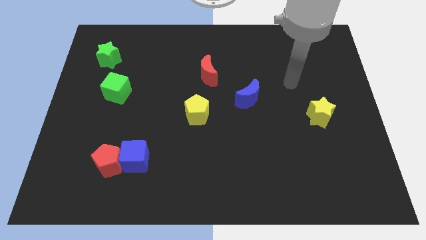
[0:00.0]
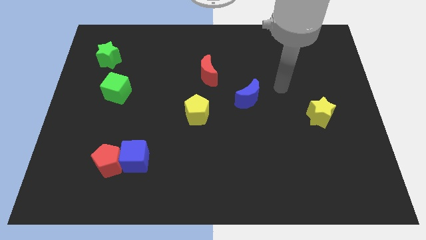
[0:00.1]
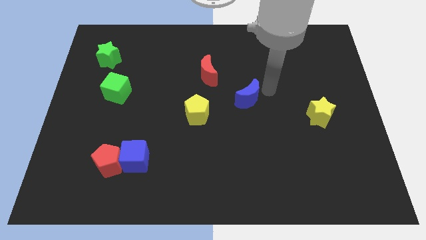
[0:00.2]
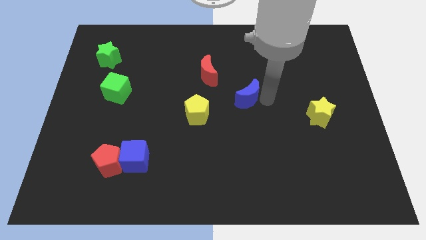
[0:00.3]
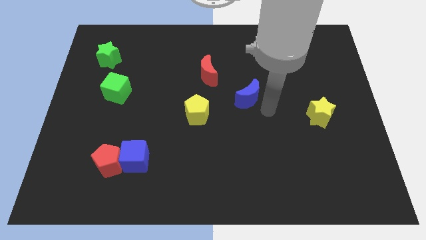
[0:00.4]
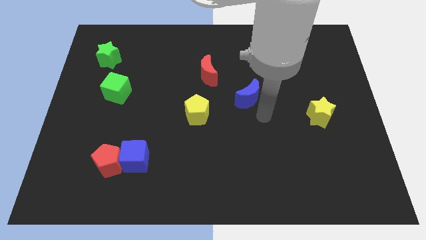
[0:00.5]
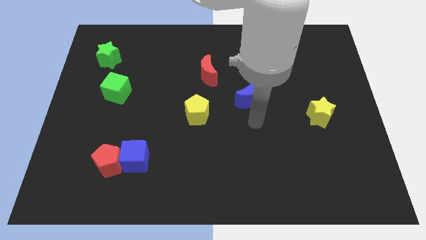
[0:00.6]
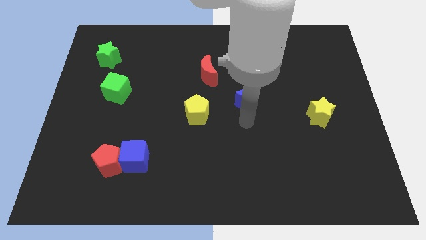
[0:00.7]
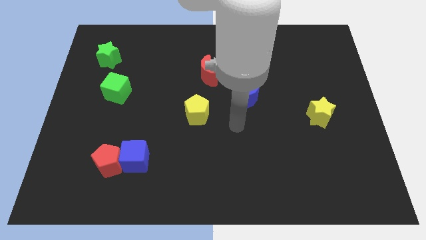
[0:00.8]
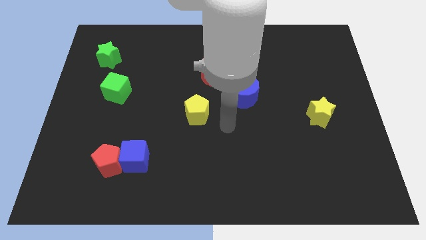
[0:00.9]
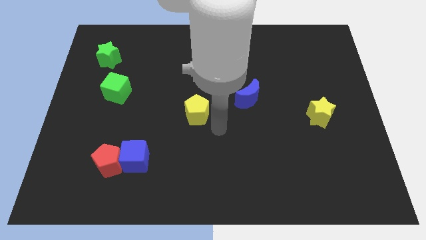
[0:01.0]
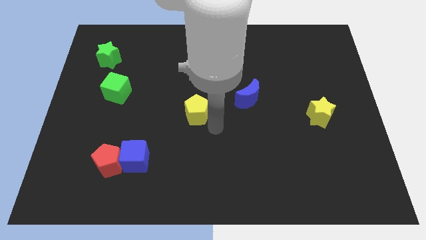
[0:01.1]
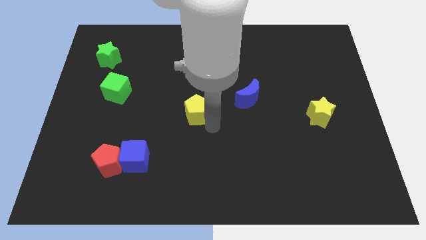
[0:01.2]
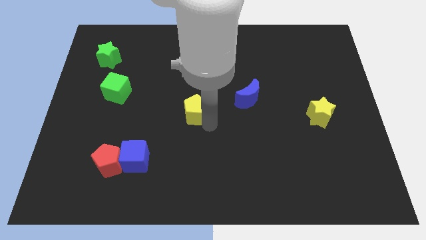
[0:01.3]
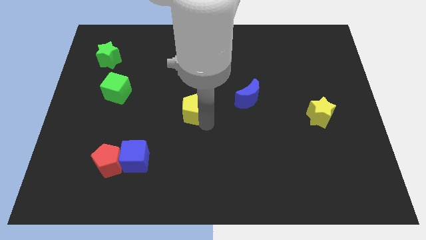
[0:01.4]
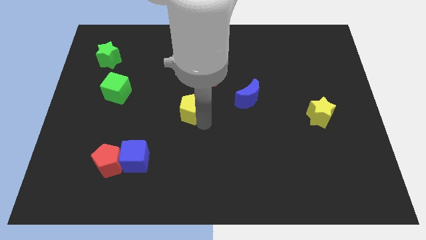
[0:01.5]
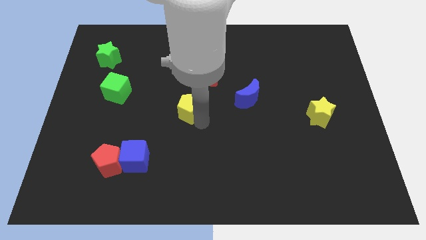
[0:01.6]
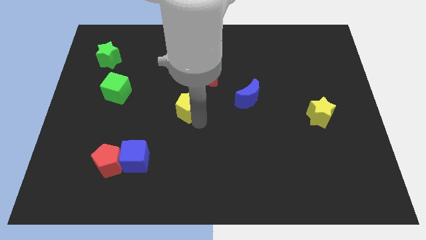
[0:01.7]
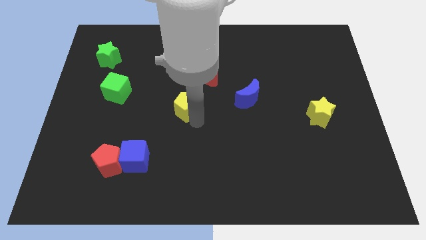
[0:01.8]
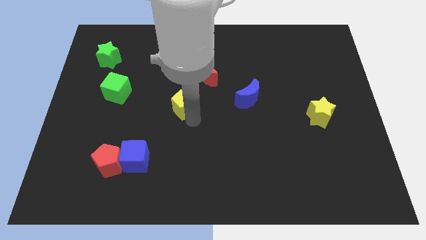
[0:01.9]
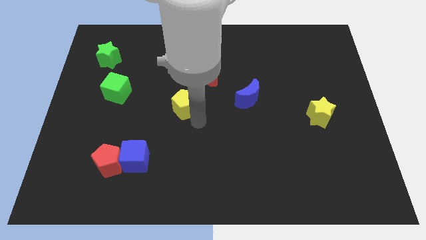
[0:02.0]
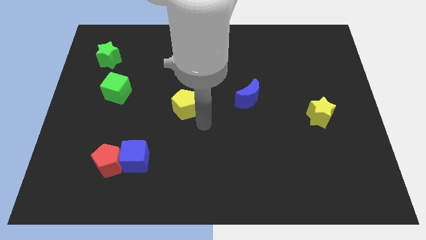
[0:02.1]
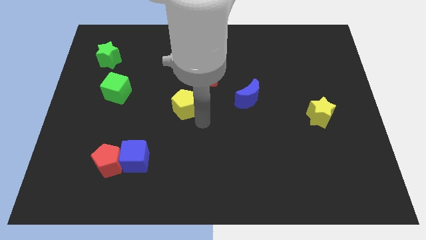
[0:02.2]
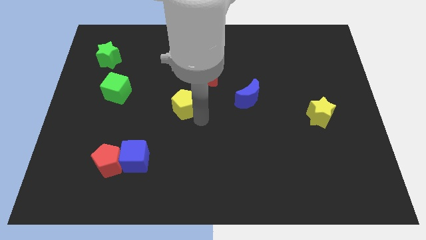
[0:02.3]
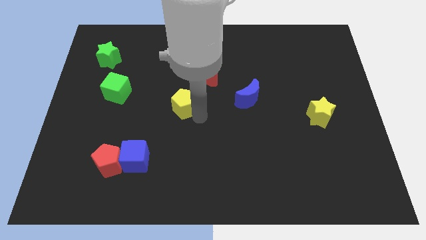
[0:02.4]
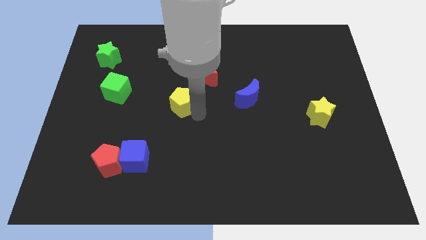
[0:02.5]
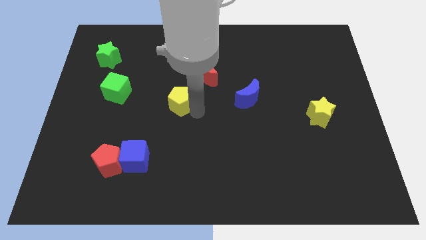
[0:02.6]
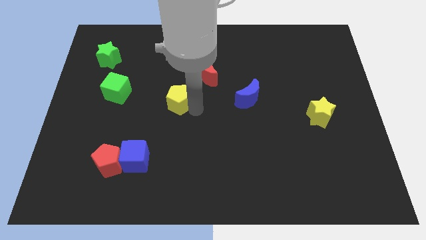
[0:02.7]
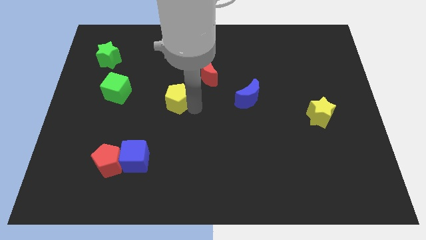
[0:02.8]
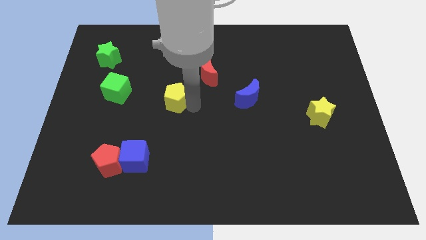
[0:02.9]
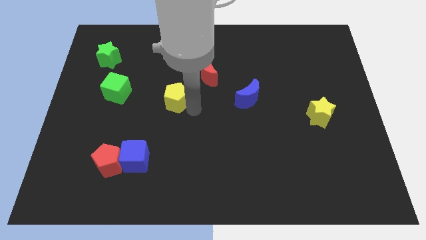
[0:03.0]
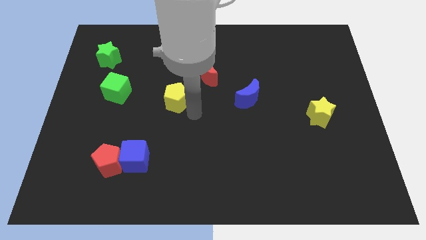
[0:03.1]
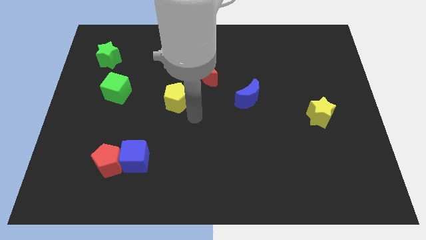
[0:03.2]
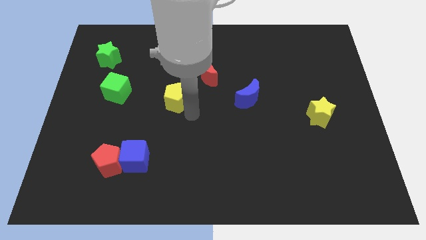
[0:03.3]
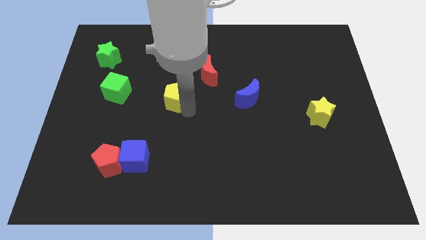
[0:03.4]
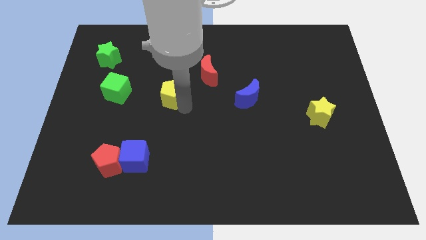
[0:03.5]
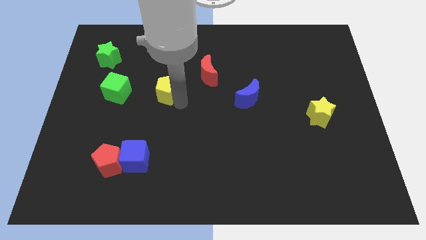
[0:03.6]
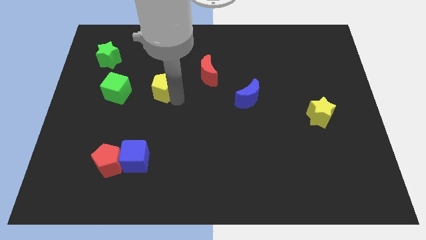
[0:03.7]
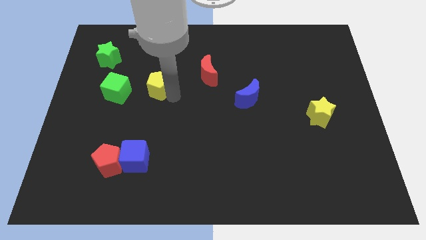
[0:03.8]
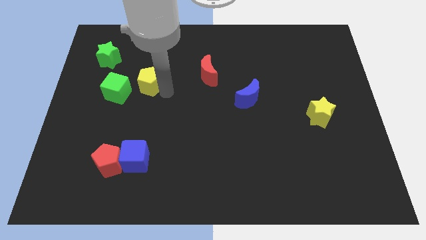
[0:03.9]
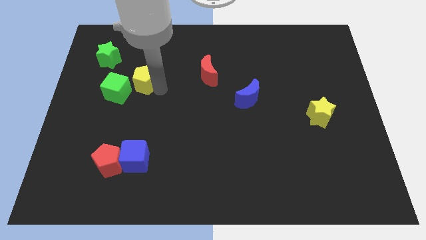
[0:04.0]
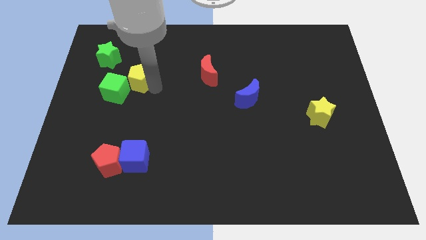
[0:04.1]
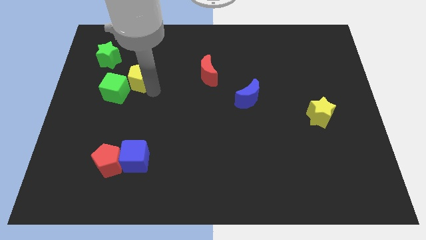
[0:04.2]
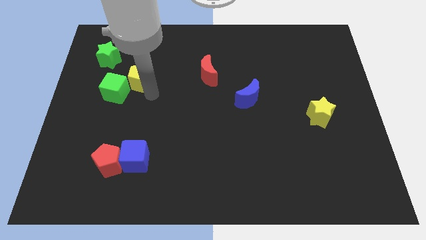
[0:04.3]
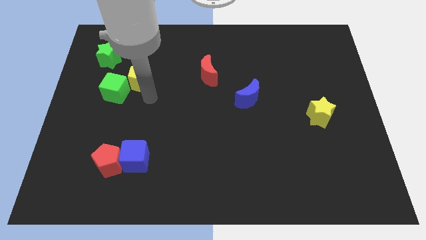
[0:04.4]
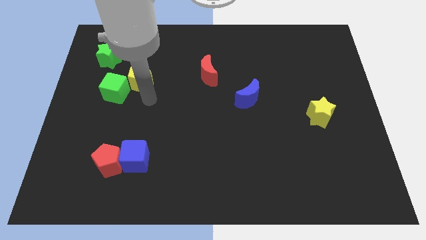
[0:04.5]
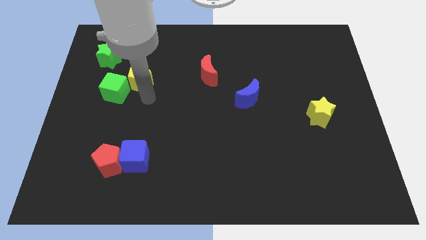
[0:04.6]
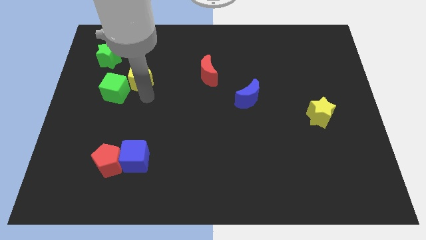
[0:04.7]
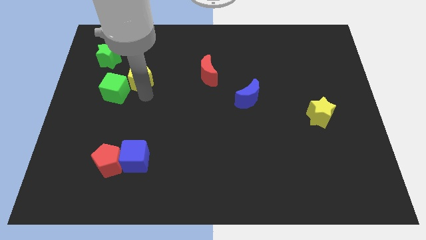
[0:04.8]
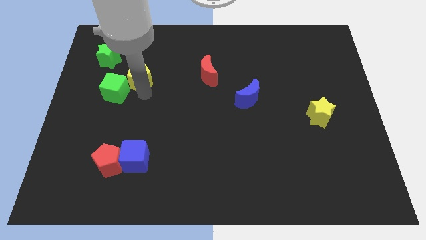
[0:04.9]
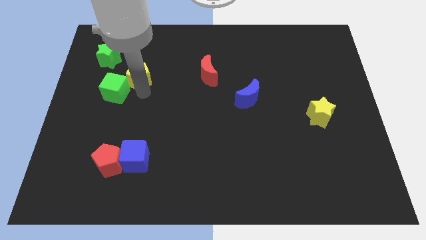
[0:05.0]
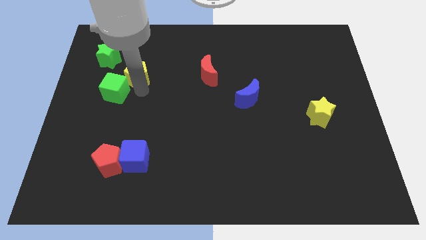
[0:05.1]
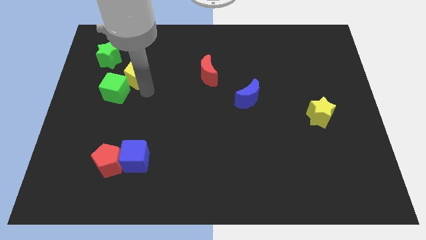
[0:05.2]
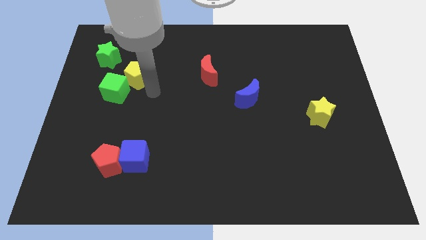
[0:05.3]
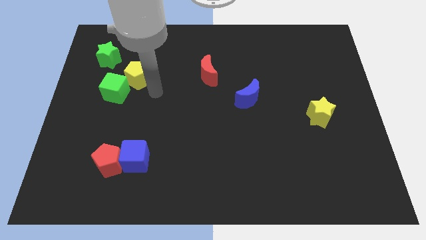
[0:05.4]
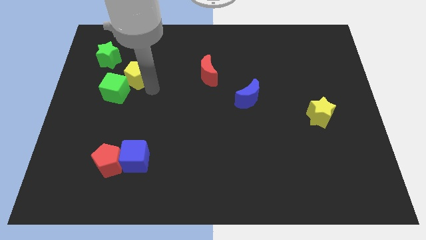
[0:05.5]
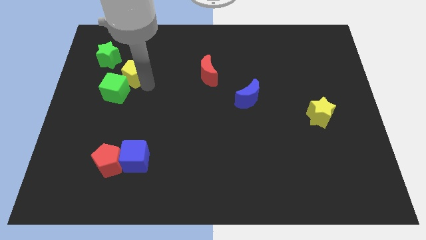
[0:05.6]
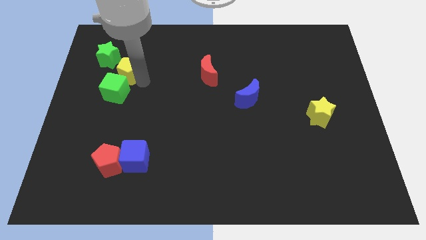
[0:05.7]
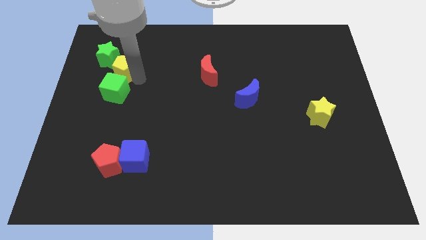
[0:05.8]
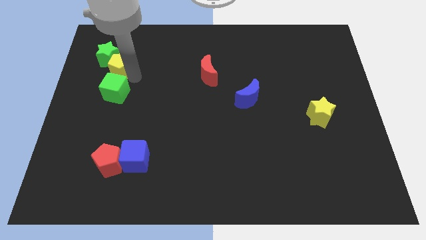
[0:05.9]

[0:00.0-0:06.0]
move the yellow pentagon towards the green star

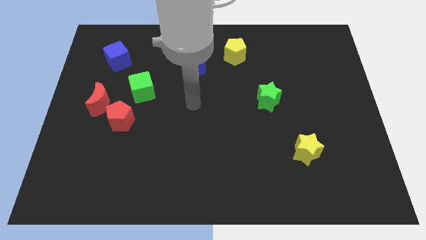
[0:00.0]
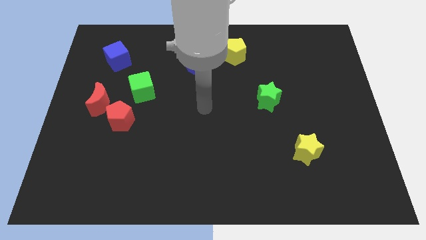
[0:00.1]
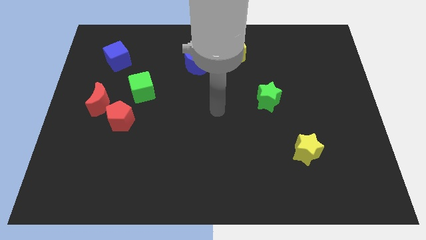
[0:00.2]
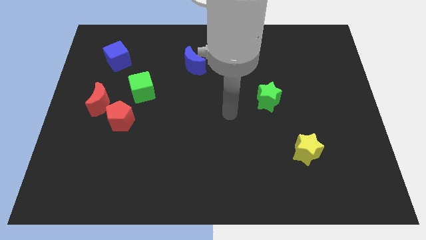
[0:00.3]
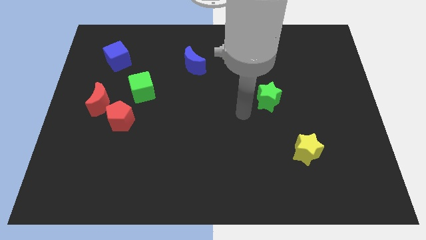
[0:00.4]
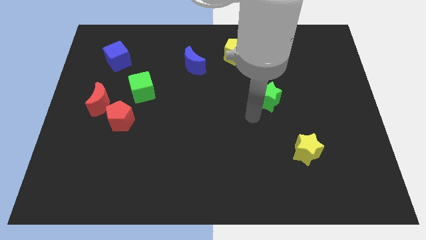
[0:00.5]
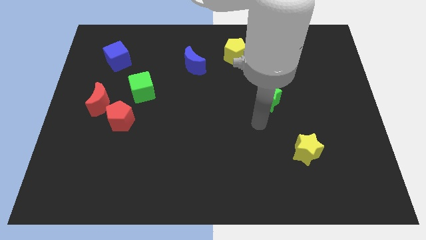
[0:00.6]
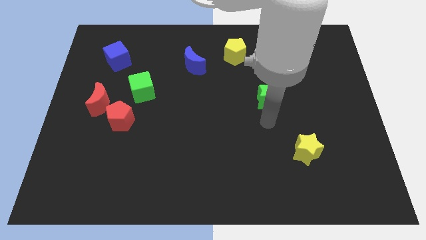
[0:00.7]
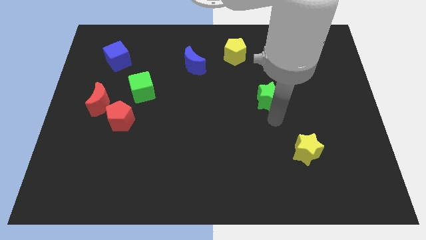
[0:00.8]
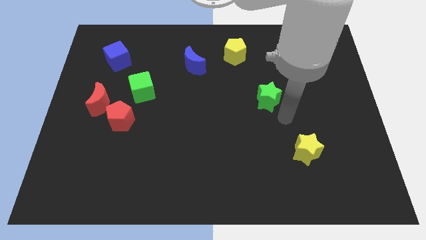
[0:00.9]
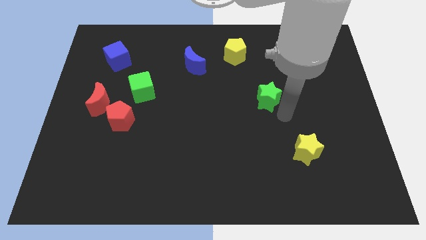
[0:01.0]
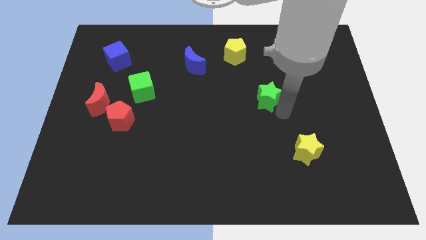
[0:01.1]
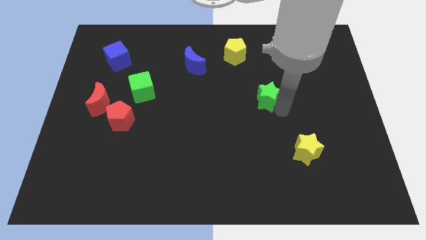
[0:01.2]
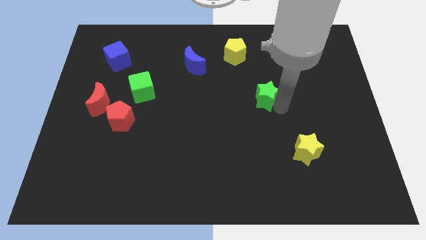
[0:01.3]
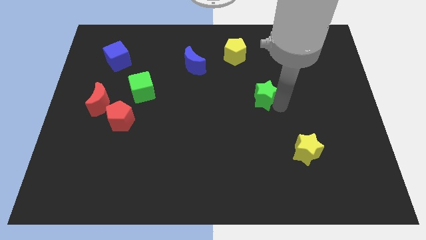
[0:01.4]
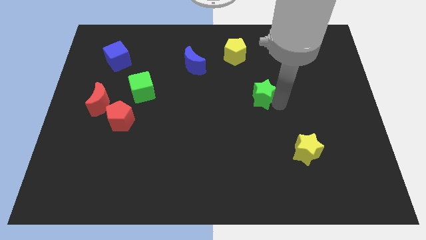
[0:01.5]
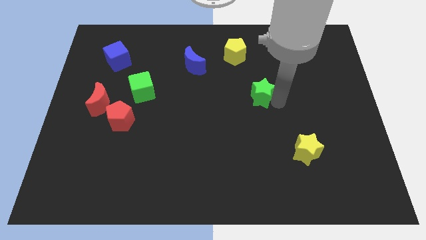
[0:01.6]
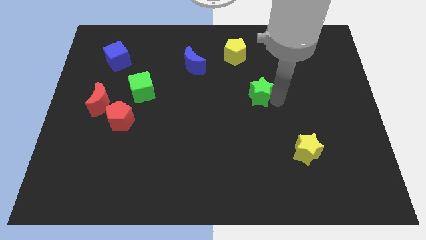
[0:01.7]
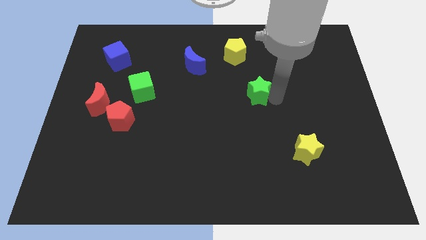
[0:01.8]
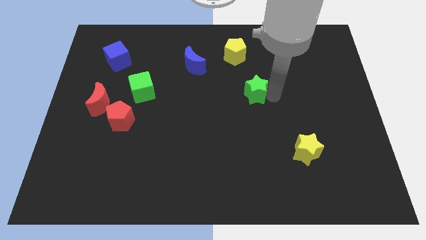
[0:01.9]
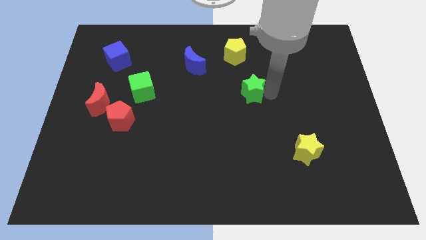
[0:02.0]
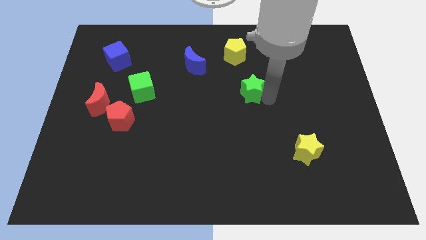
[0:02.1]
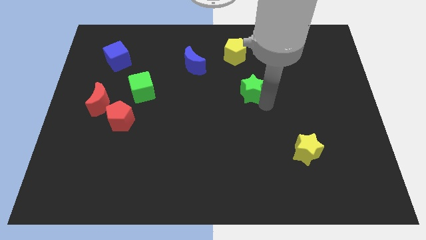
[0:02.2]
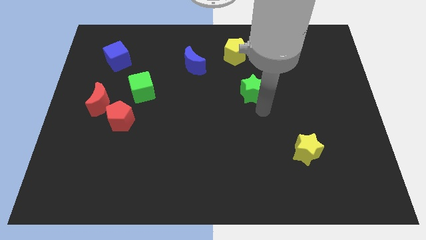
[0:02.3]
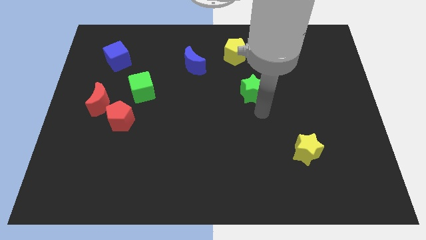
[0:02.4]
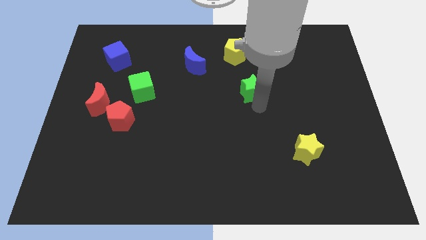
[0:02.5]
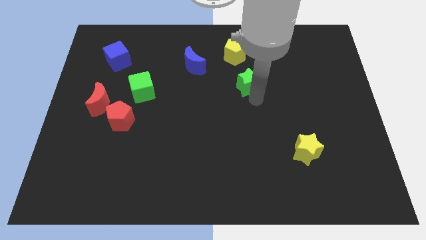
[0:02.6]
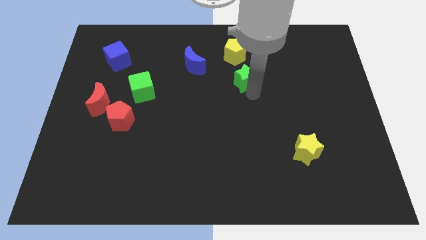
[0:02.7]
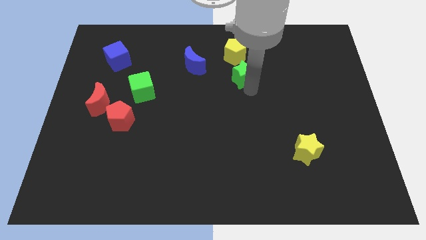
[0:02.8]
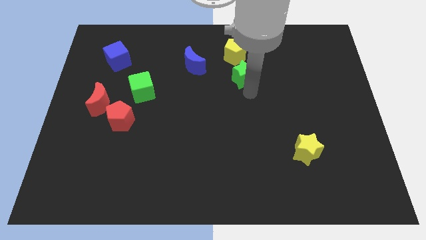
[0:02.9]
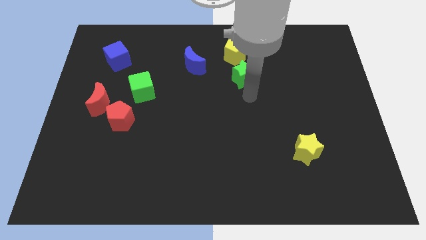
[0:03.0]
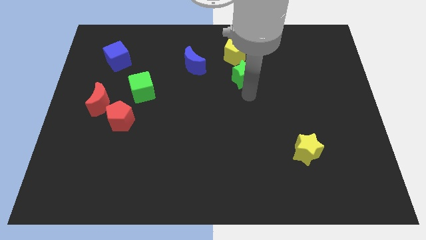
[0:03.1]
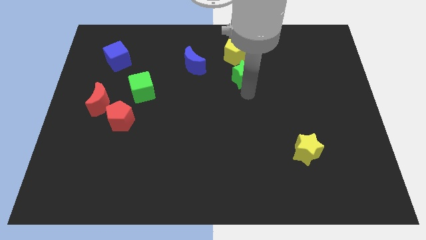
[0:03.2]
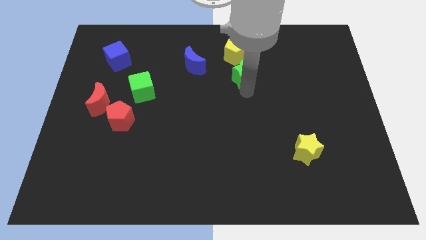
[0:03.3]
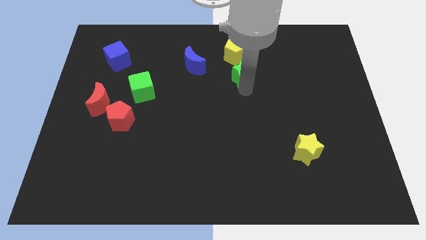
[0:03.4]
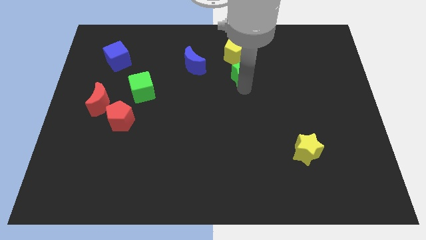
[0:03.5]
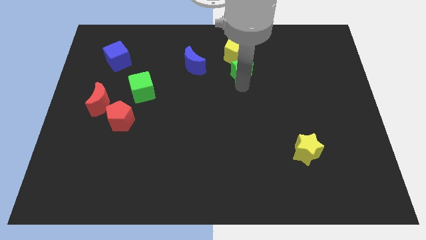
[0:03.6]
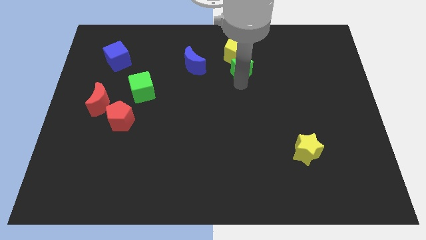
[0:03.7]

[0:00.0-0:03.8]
put the green star close to the yellow pentagon
